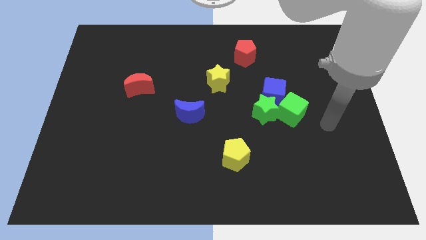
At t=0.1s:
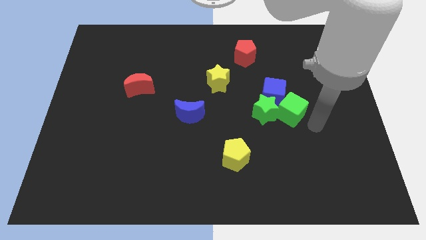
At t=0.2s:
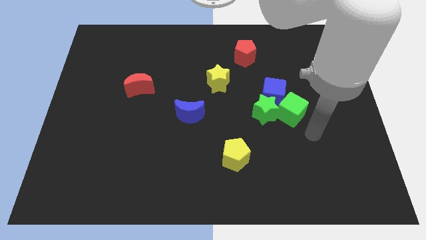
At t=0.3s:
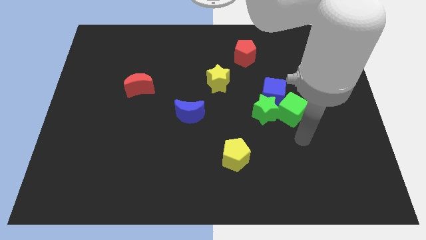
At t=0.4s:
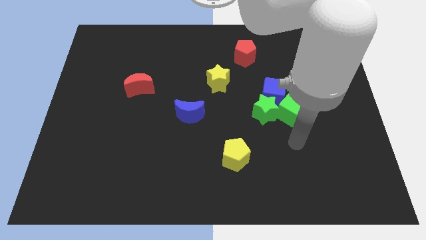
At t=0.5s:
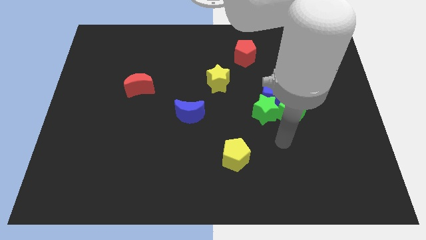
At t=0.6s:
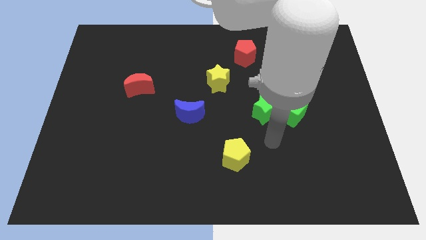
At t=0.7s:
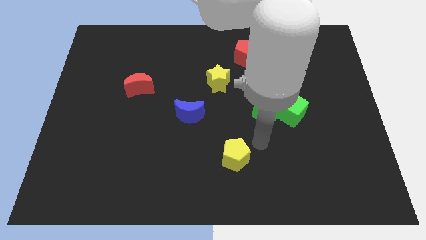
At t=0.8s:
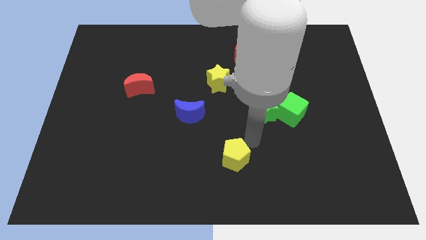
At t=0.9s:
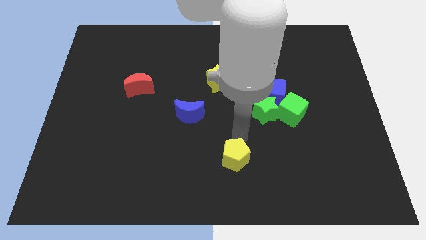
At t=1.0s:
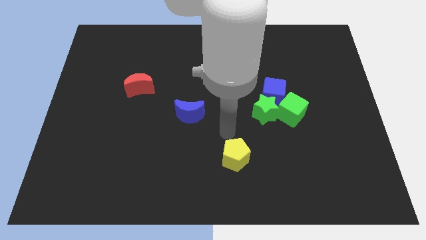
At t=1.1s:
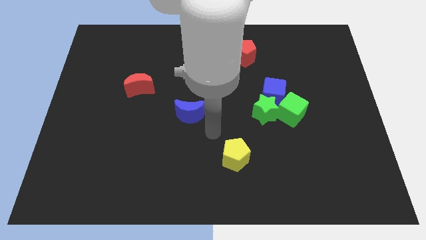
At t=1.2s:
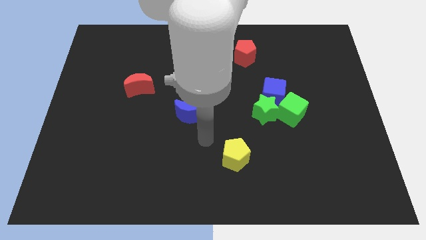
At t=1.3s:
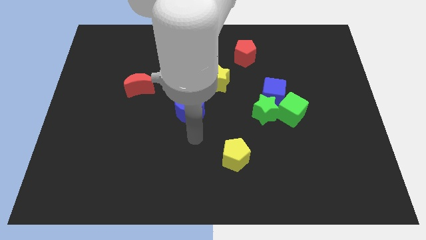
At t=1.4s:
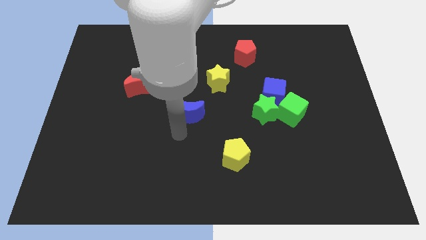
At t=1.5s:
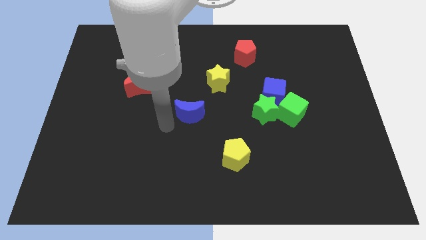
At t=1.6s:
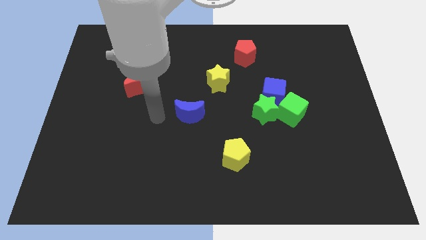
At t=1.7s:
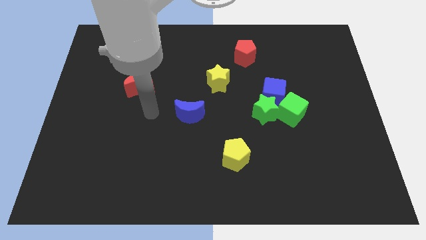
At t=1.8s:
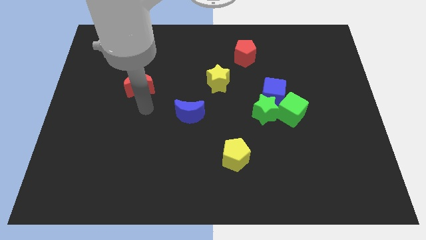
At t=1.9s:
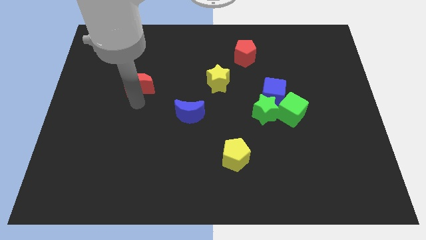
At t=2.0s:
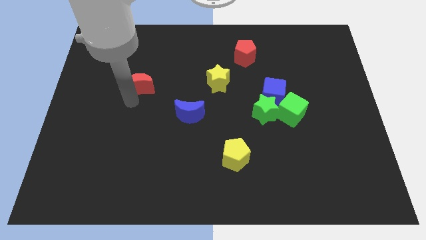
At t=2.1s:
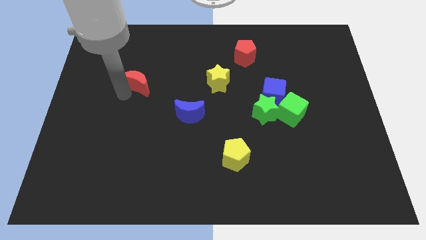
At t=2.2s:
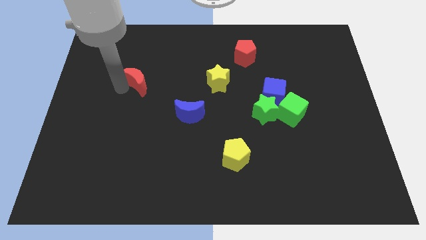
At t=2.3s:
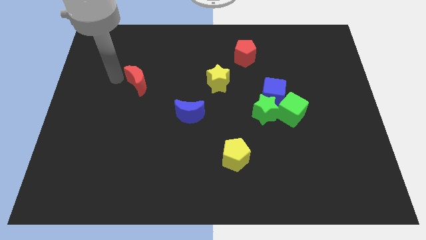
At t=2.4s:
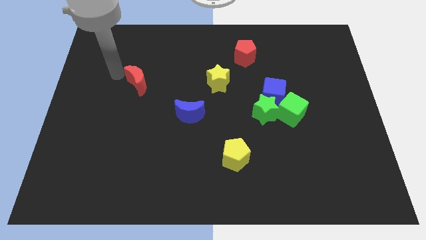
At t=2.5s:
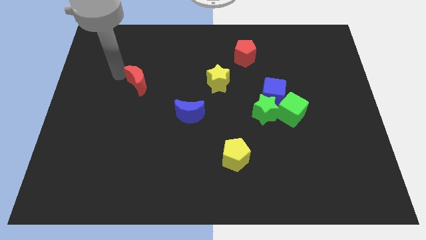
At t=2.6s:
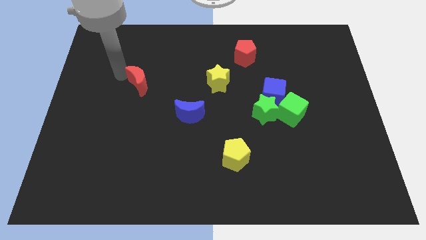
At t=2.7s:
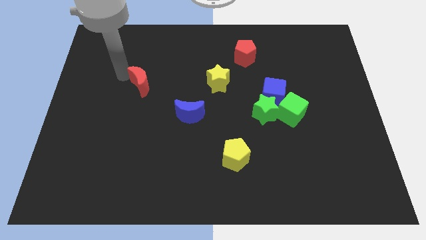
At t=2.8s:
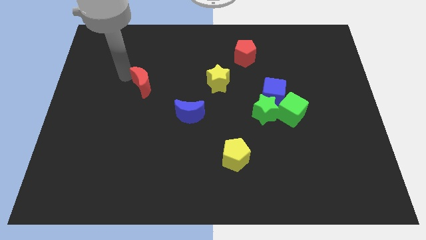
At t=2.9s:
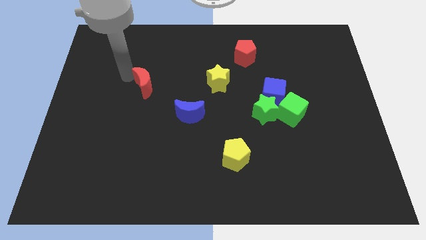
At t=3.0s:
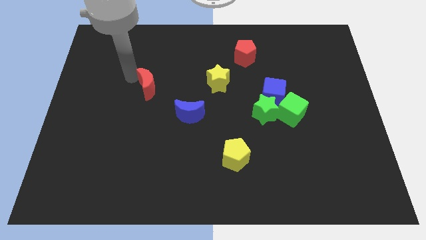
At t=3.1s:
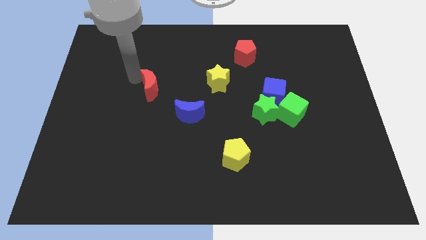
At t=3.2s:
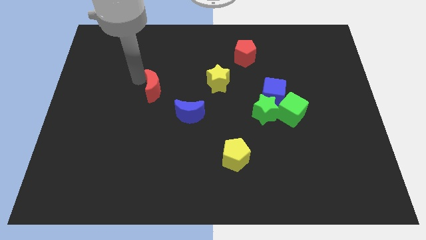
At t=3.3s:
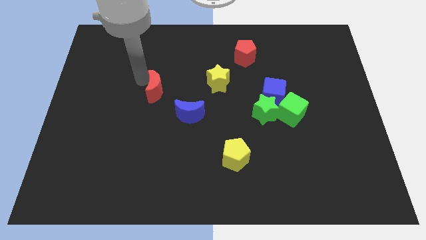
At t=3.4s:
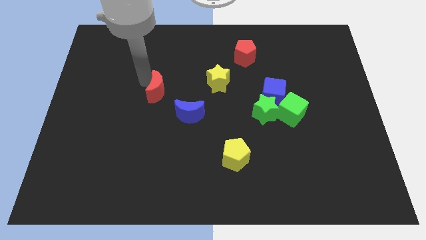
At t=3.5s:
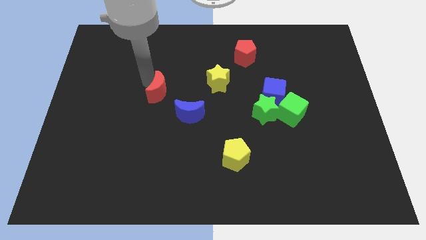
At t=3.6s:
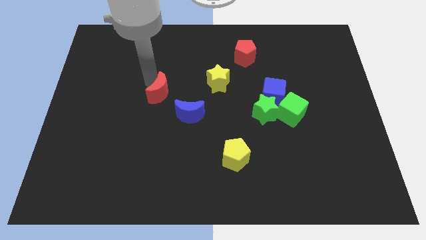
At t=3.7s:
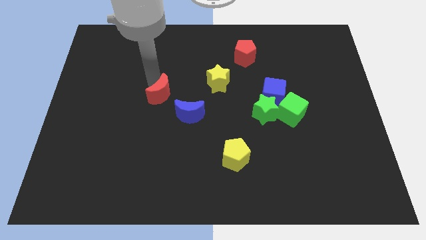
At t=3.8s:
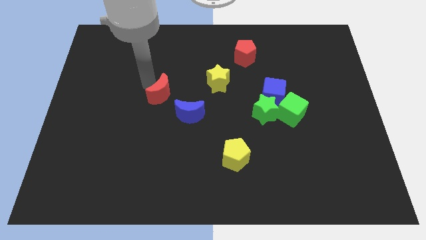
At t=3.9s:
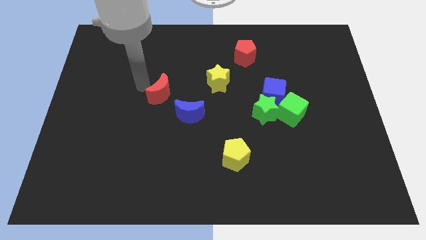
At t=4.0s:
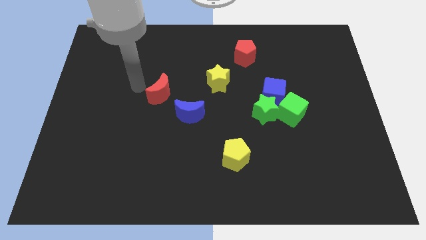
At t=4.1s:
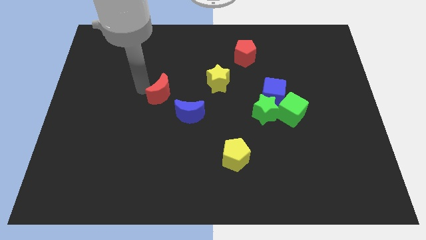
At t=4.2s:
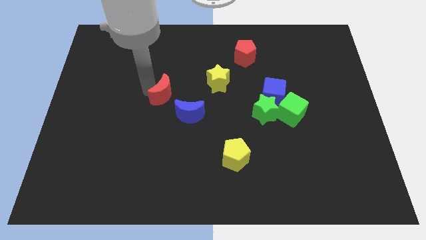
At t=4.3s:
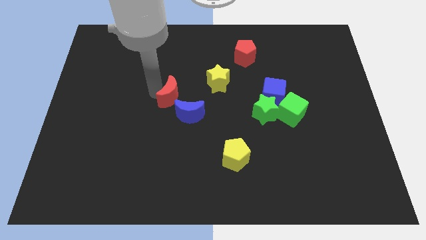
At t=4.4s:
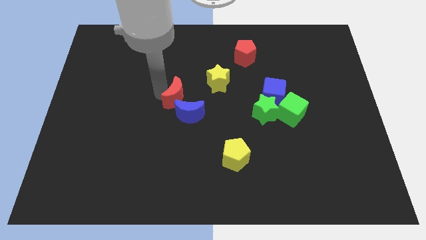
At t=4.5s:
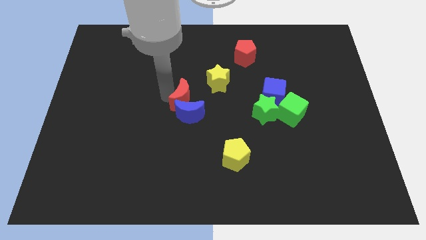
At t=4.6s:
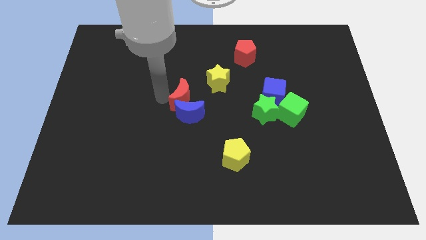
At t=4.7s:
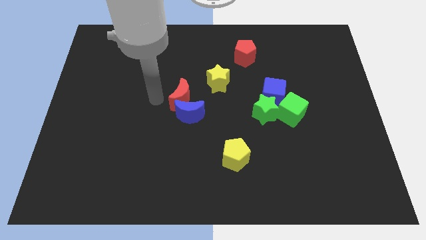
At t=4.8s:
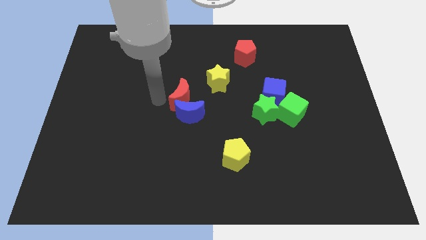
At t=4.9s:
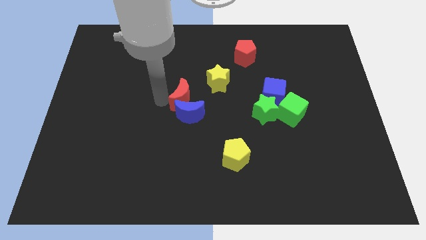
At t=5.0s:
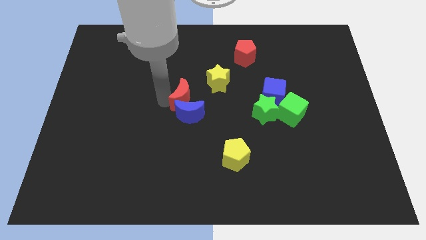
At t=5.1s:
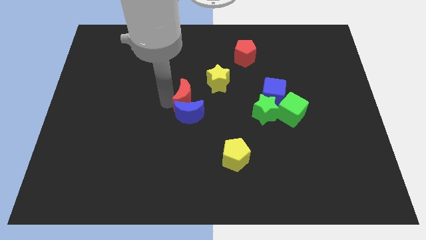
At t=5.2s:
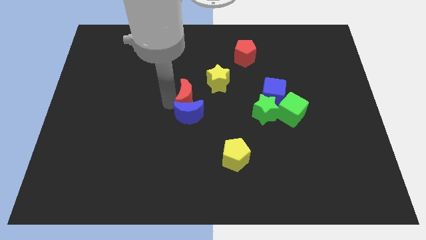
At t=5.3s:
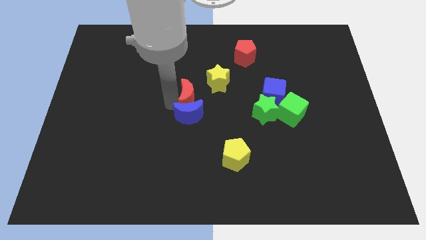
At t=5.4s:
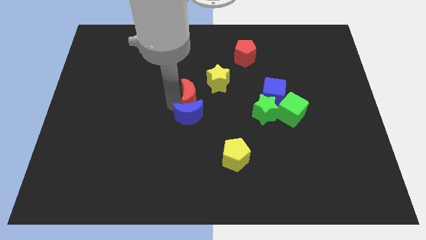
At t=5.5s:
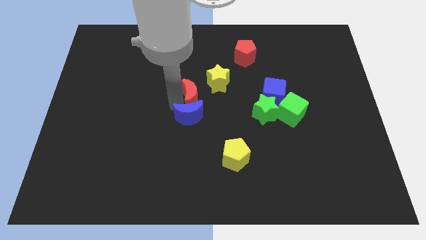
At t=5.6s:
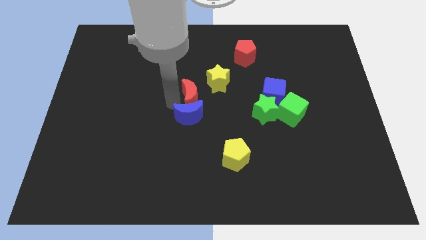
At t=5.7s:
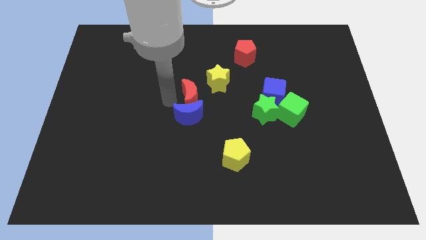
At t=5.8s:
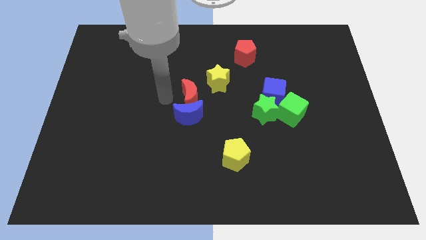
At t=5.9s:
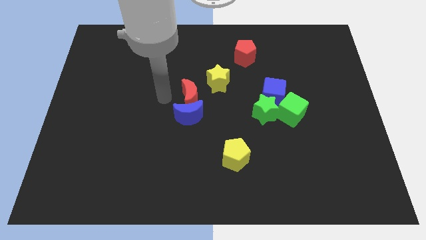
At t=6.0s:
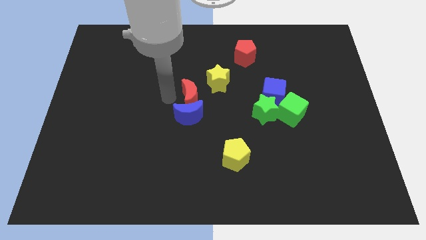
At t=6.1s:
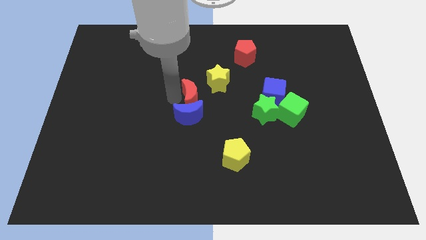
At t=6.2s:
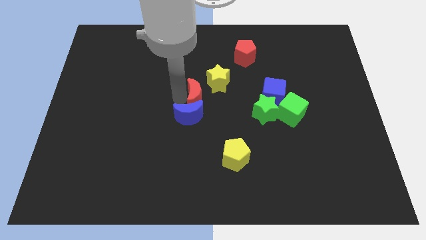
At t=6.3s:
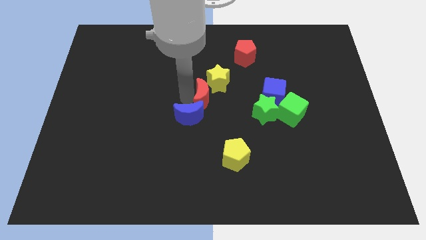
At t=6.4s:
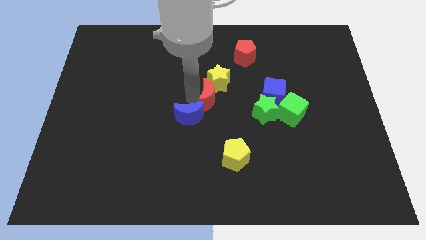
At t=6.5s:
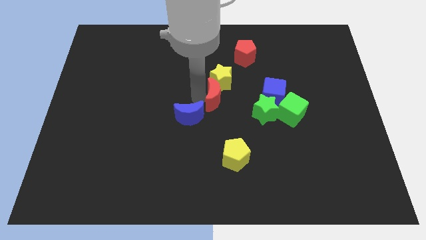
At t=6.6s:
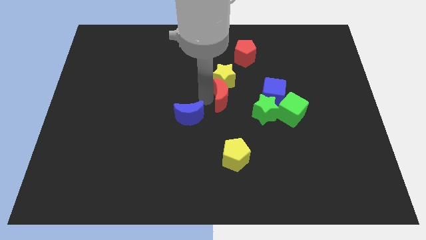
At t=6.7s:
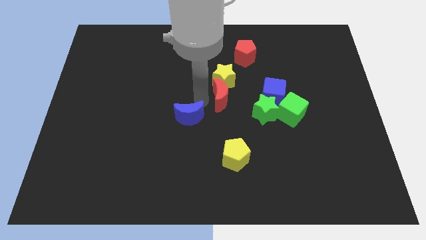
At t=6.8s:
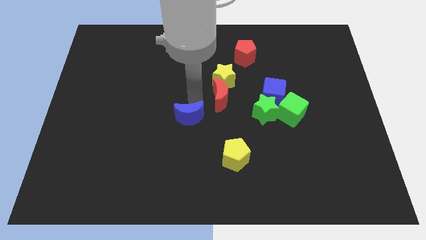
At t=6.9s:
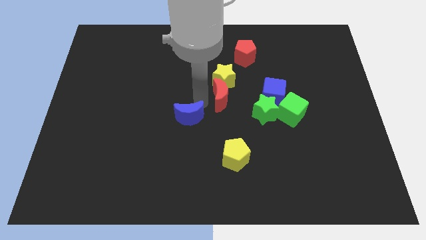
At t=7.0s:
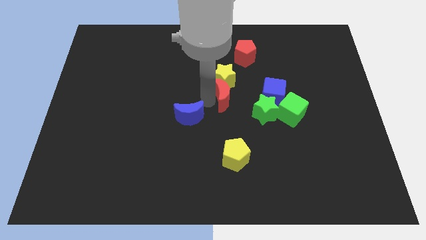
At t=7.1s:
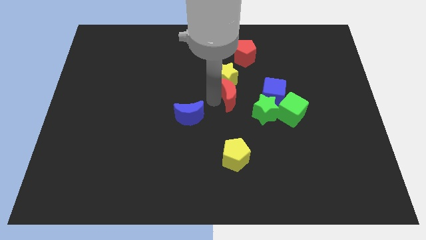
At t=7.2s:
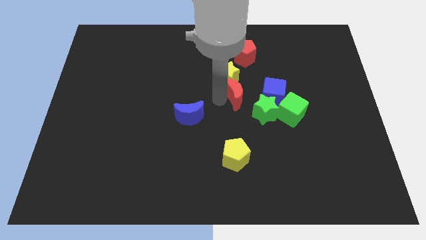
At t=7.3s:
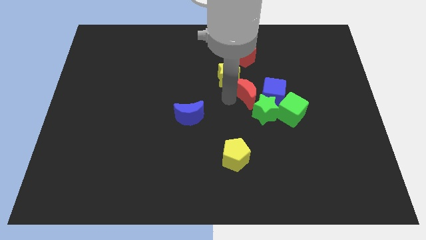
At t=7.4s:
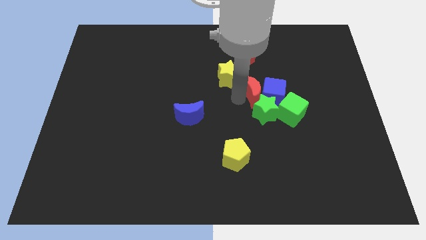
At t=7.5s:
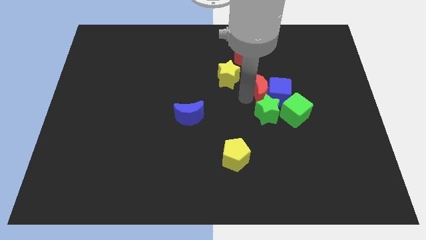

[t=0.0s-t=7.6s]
push the red moon just right of the yellow star
